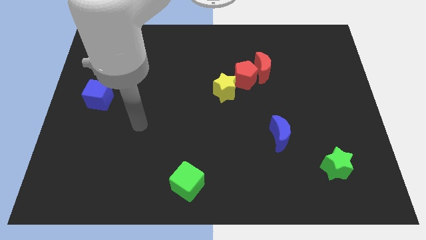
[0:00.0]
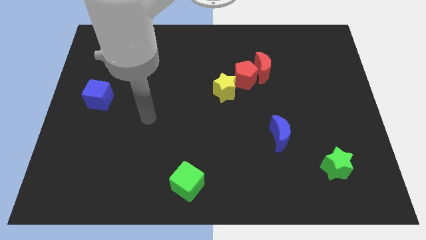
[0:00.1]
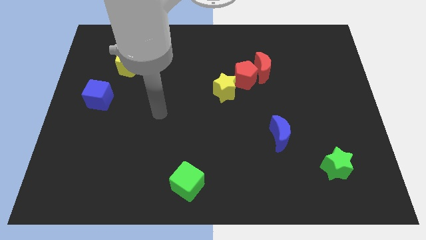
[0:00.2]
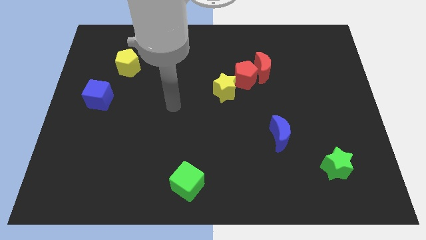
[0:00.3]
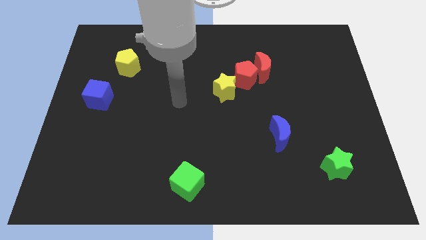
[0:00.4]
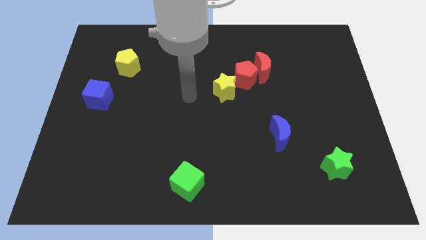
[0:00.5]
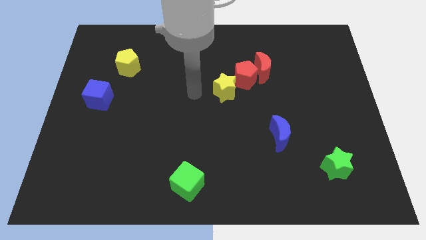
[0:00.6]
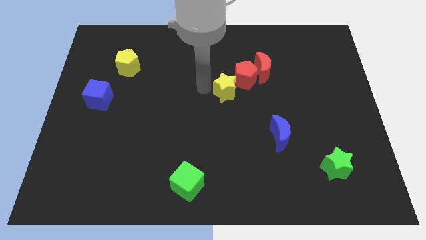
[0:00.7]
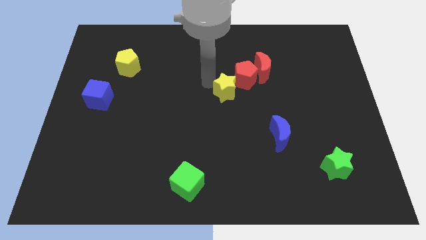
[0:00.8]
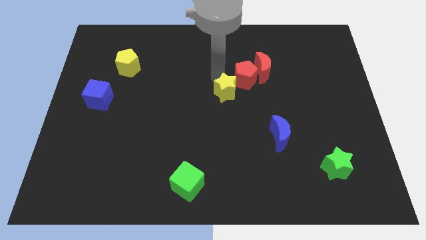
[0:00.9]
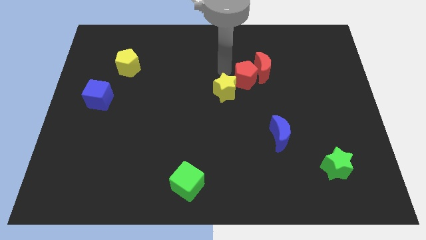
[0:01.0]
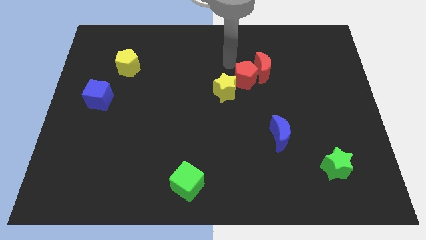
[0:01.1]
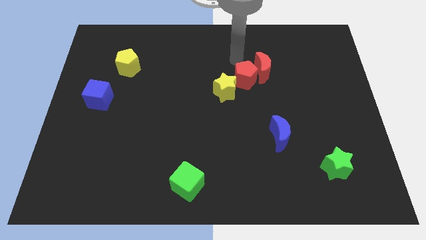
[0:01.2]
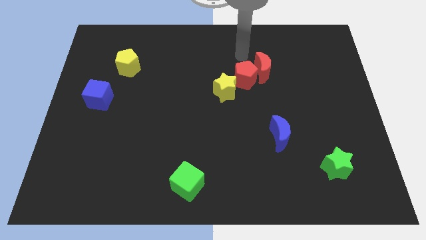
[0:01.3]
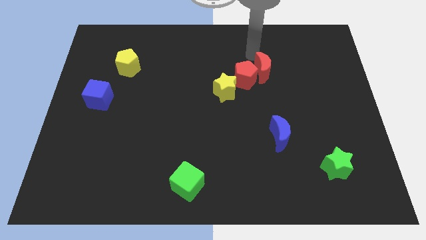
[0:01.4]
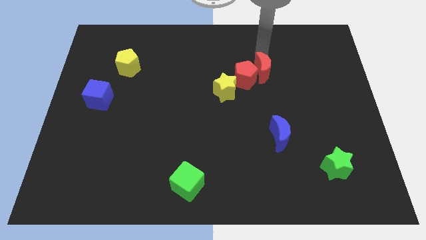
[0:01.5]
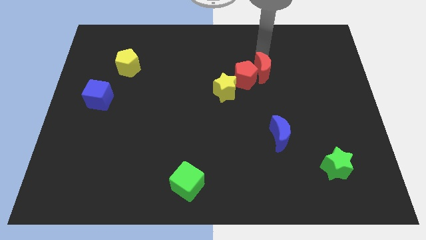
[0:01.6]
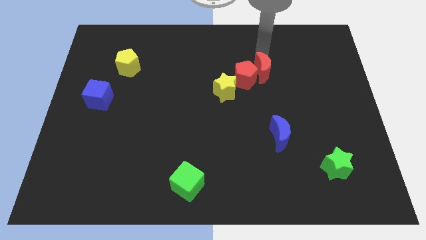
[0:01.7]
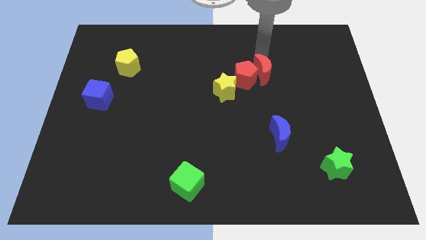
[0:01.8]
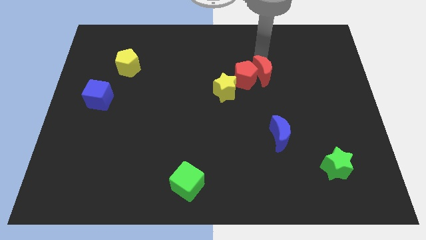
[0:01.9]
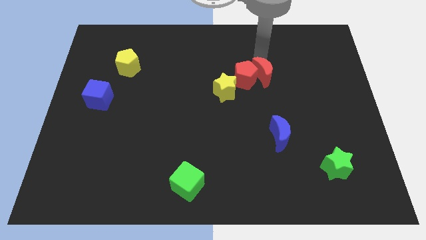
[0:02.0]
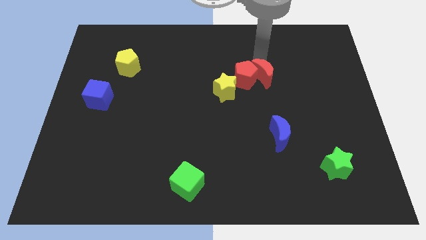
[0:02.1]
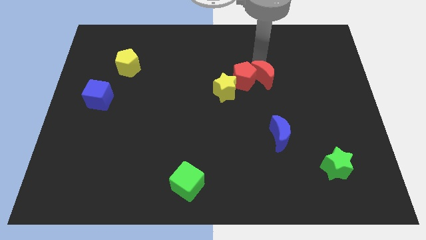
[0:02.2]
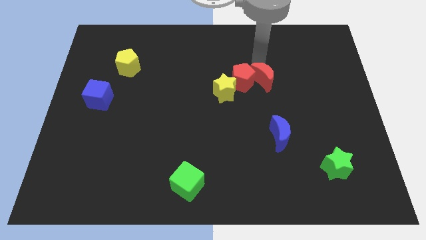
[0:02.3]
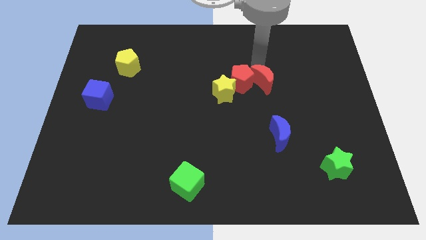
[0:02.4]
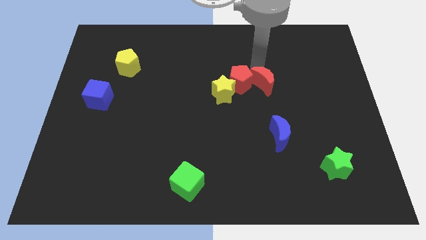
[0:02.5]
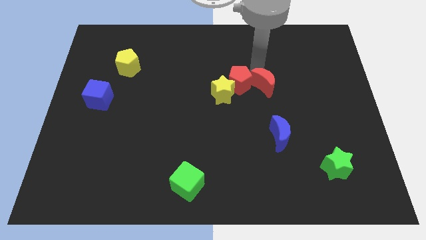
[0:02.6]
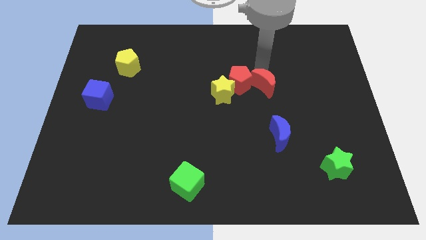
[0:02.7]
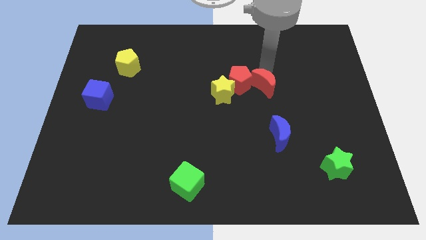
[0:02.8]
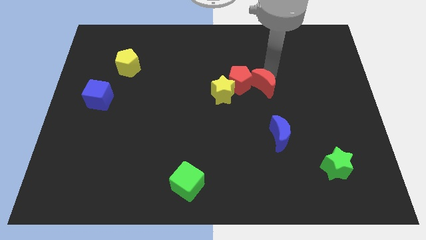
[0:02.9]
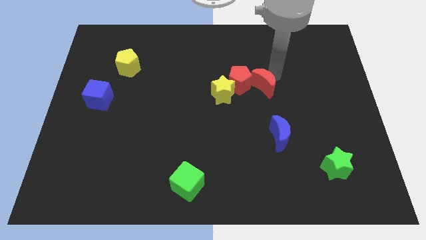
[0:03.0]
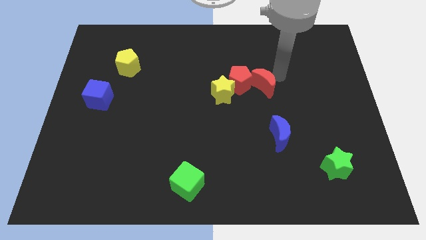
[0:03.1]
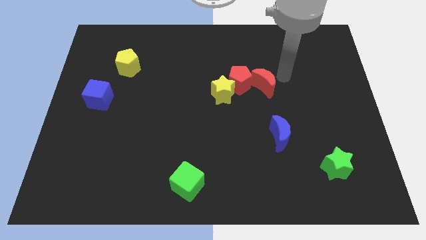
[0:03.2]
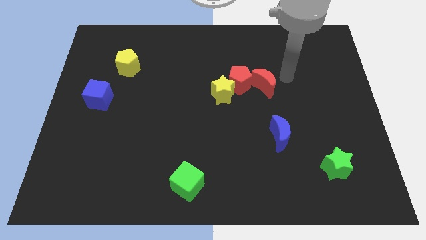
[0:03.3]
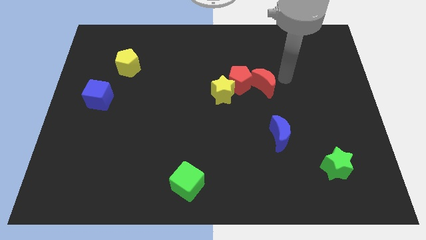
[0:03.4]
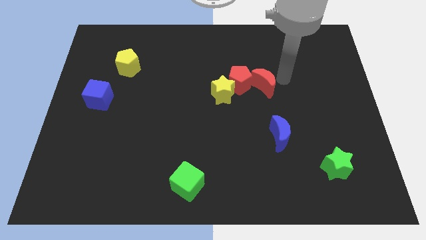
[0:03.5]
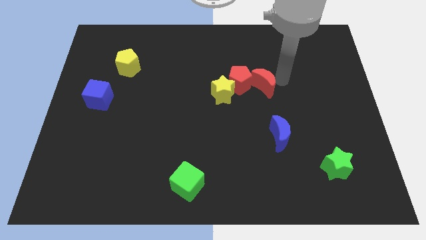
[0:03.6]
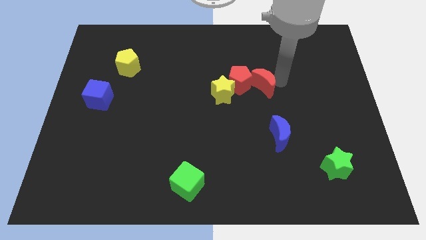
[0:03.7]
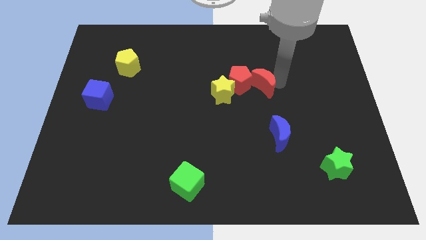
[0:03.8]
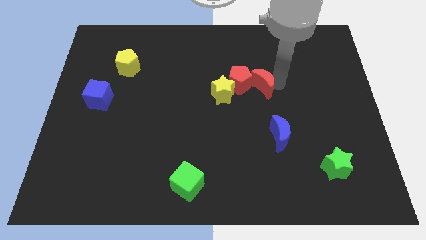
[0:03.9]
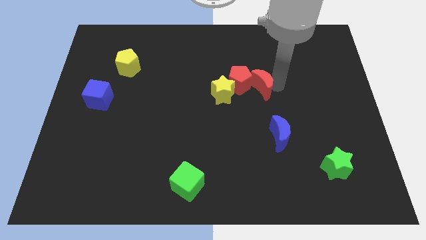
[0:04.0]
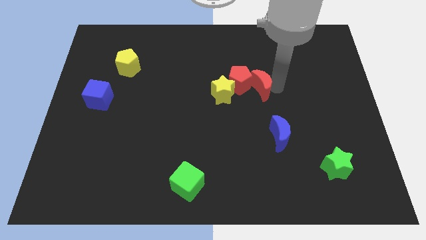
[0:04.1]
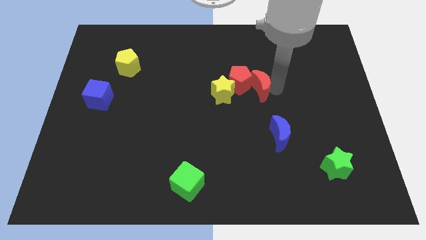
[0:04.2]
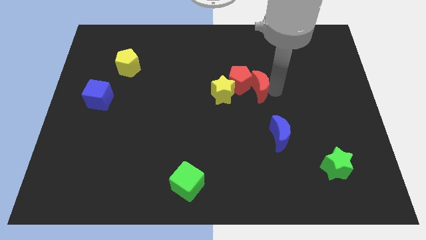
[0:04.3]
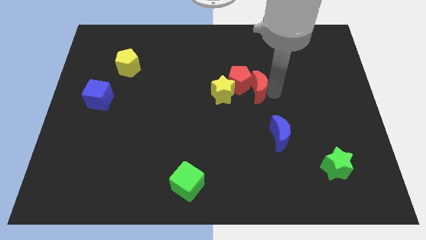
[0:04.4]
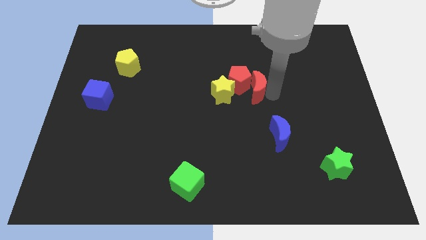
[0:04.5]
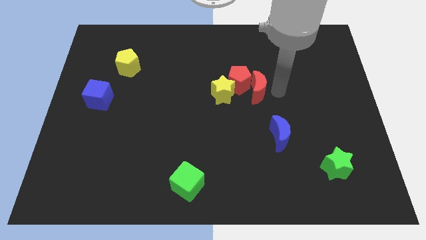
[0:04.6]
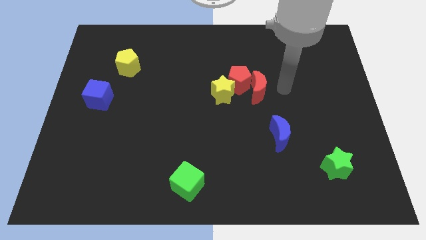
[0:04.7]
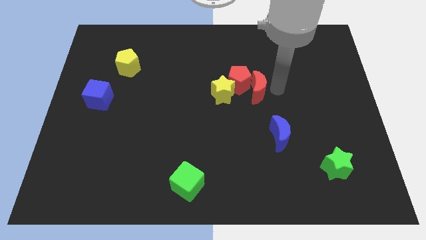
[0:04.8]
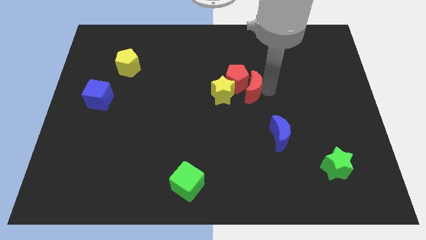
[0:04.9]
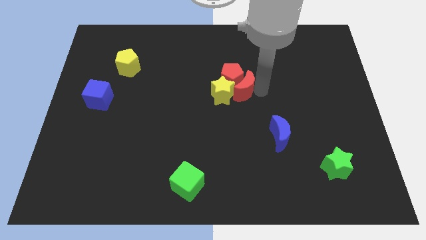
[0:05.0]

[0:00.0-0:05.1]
put the red moon next to the yellow star

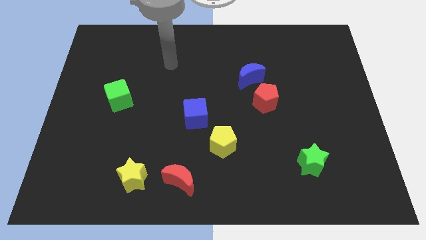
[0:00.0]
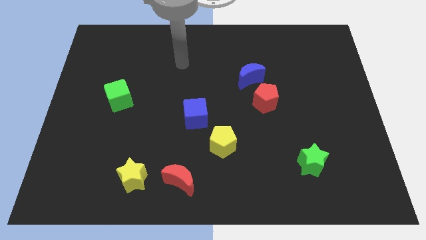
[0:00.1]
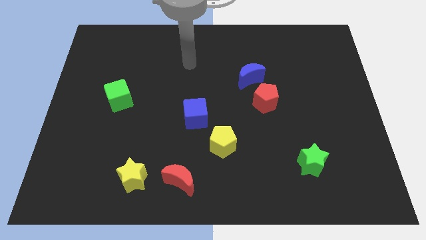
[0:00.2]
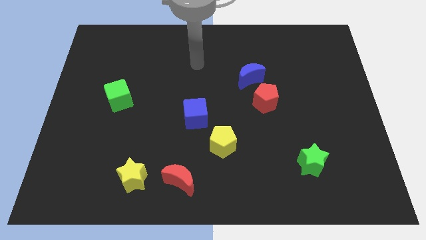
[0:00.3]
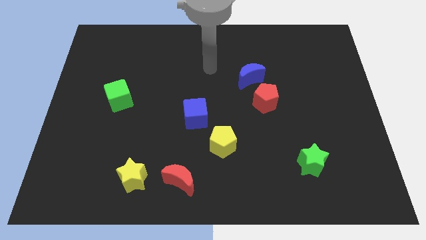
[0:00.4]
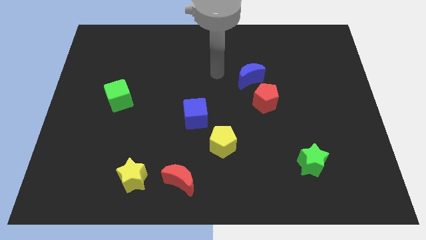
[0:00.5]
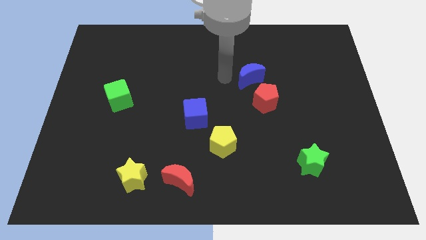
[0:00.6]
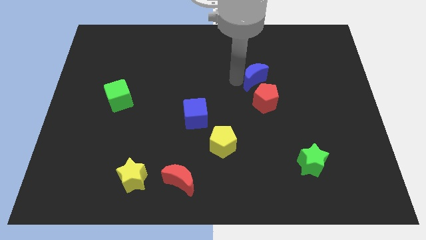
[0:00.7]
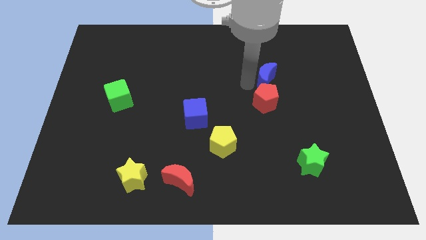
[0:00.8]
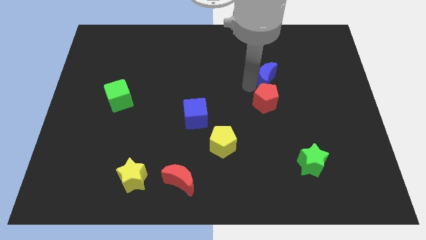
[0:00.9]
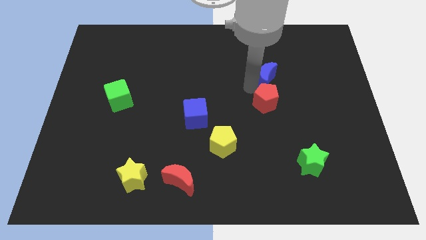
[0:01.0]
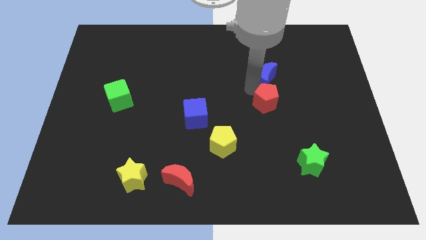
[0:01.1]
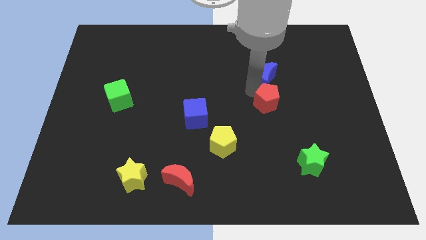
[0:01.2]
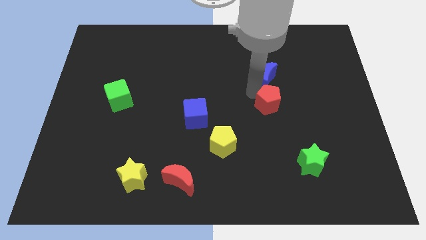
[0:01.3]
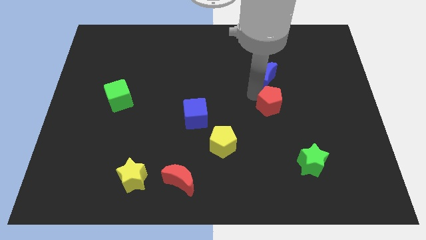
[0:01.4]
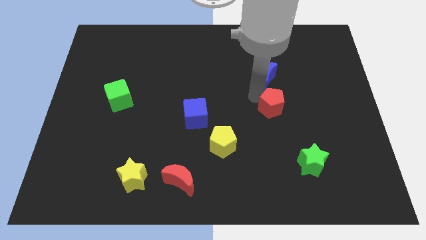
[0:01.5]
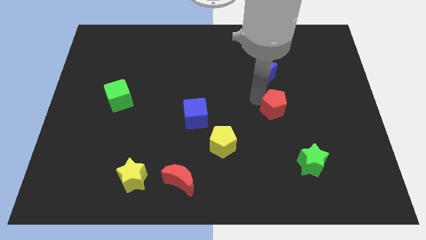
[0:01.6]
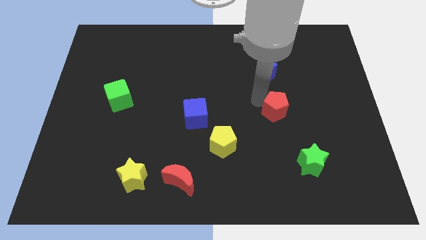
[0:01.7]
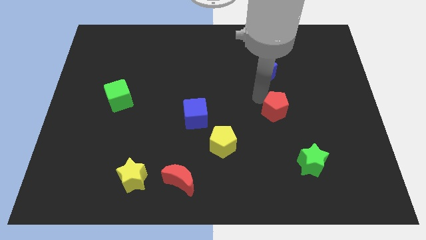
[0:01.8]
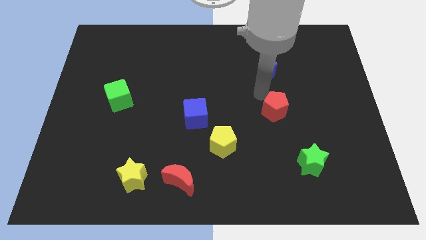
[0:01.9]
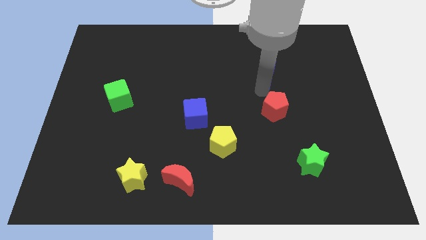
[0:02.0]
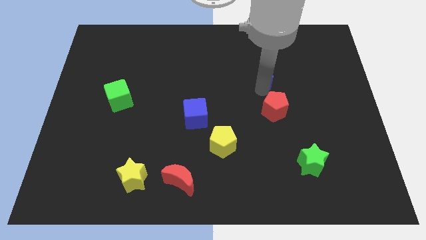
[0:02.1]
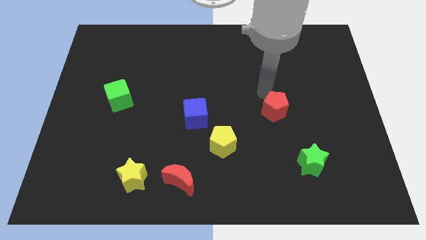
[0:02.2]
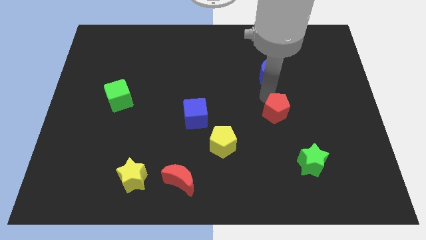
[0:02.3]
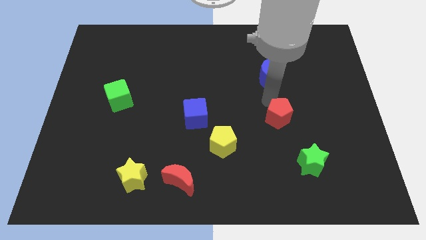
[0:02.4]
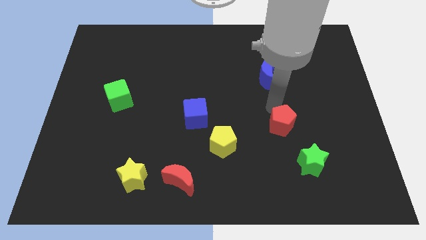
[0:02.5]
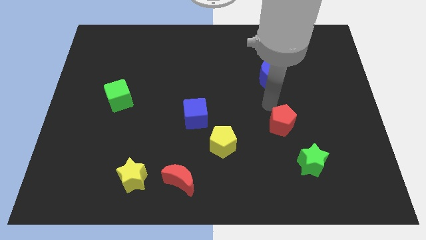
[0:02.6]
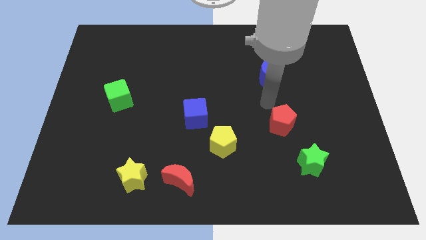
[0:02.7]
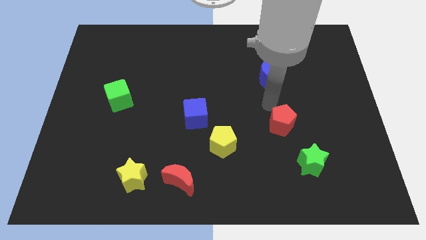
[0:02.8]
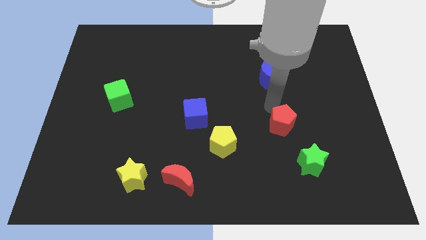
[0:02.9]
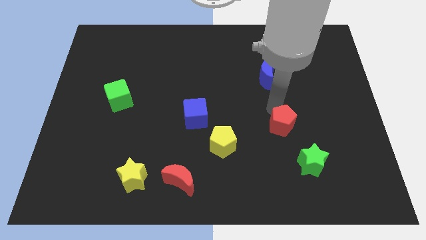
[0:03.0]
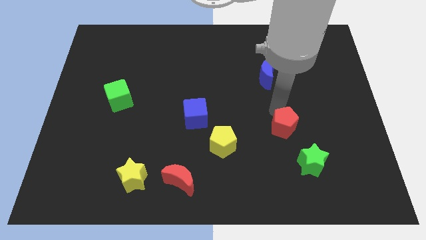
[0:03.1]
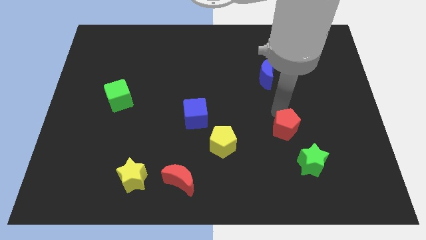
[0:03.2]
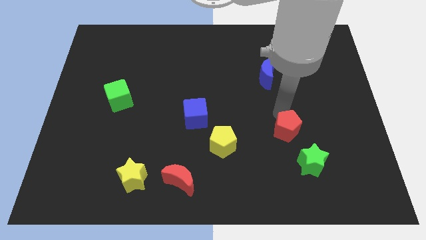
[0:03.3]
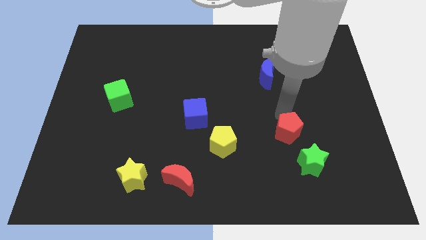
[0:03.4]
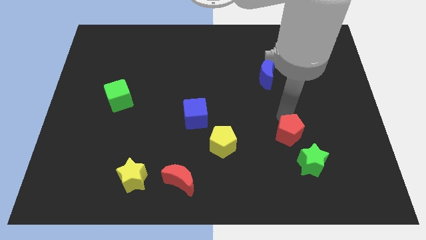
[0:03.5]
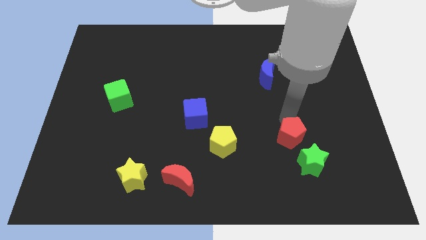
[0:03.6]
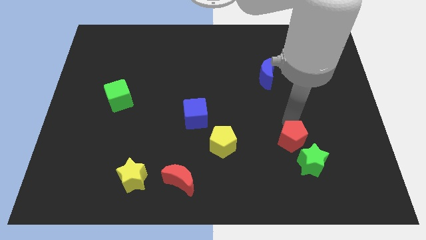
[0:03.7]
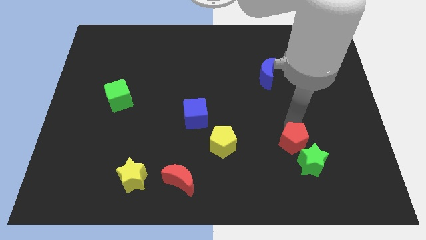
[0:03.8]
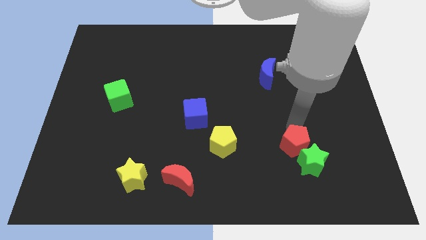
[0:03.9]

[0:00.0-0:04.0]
push the red pentagon close to the green star
